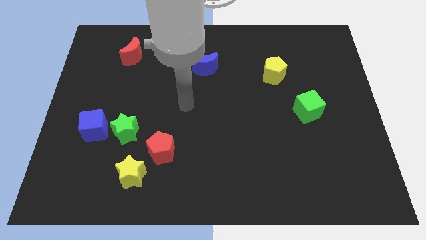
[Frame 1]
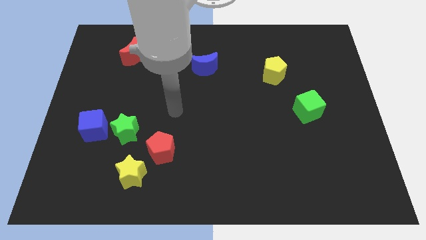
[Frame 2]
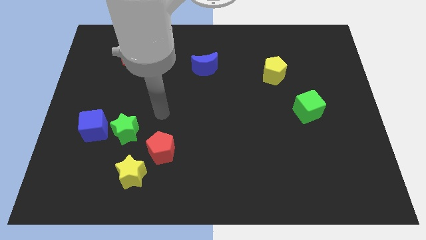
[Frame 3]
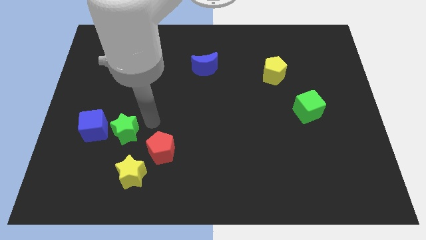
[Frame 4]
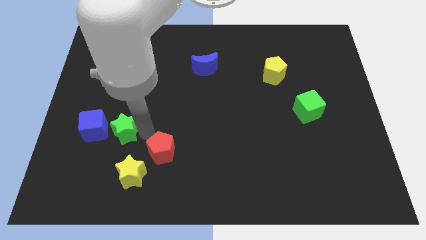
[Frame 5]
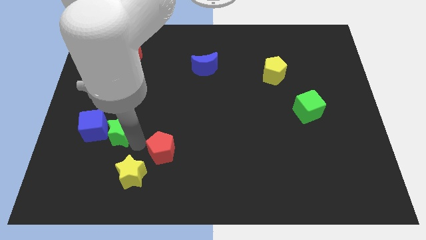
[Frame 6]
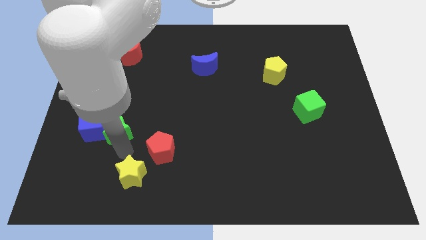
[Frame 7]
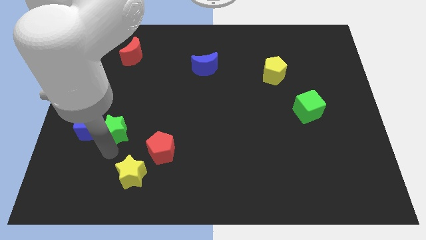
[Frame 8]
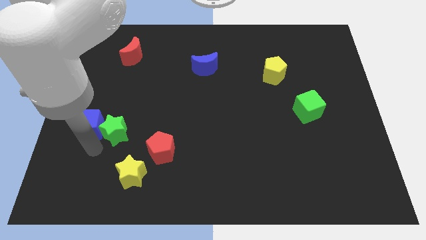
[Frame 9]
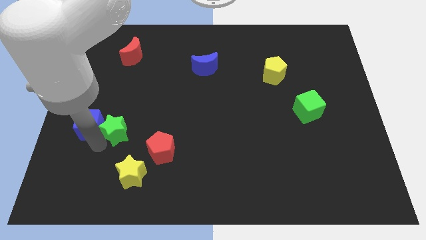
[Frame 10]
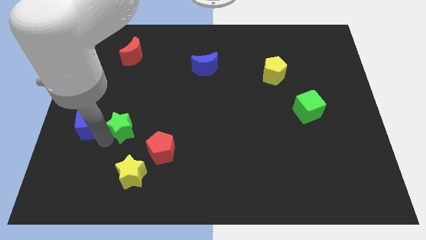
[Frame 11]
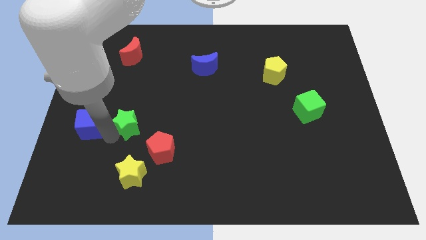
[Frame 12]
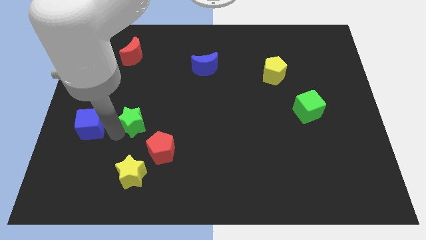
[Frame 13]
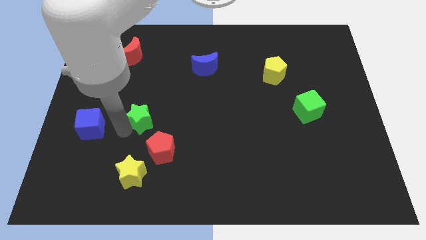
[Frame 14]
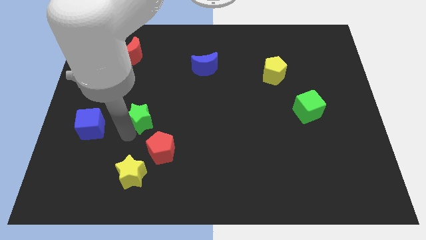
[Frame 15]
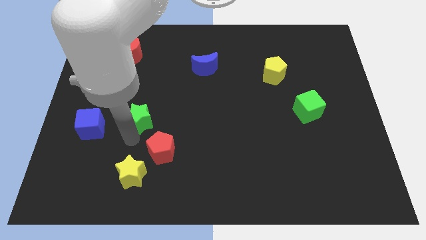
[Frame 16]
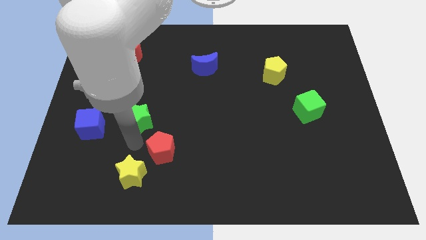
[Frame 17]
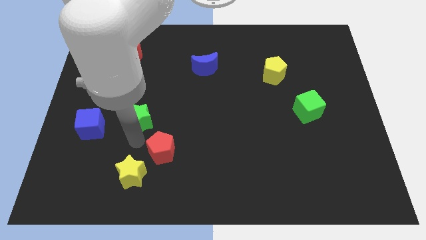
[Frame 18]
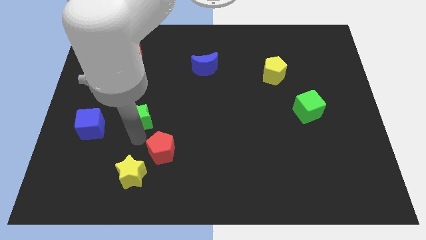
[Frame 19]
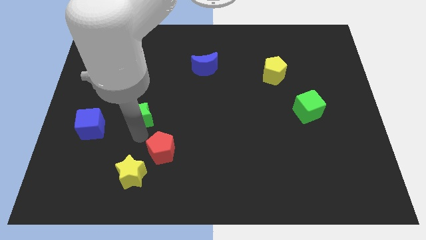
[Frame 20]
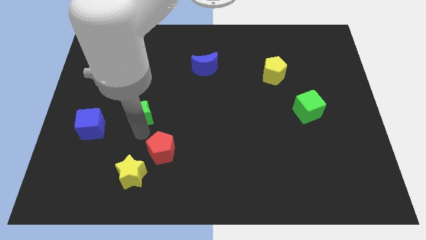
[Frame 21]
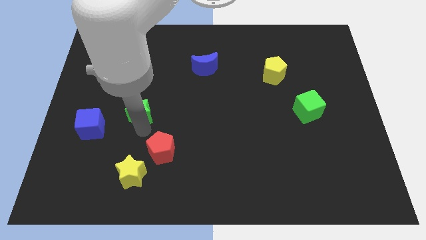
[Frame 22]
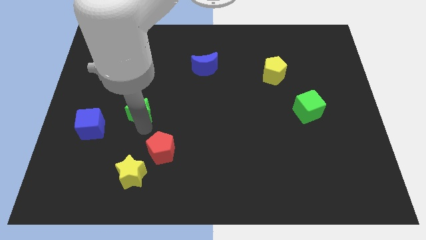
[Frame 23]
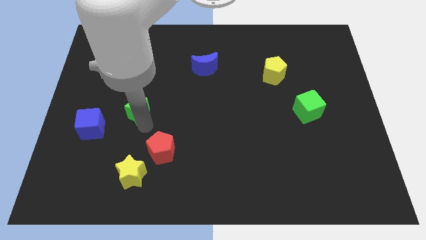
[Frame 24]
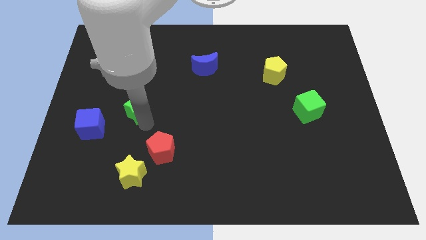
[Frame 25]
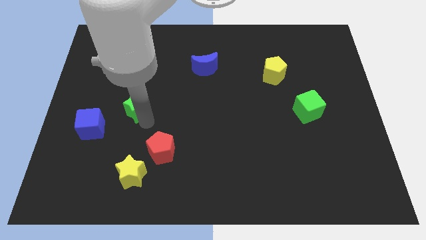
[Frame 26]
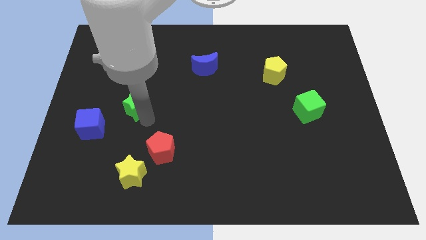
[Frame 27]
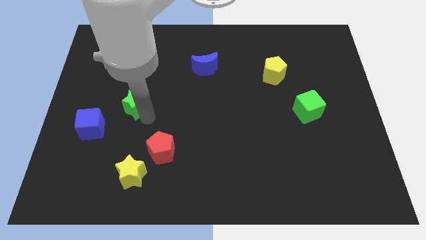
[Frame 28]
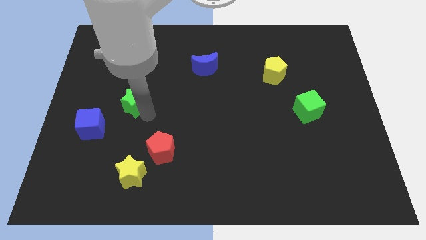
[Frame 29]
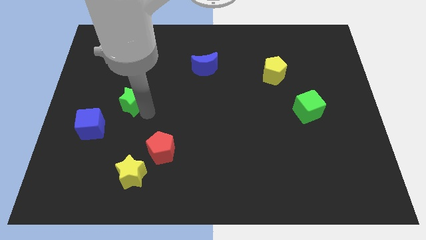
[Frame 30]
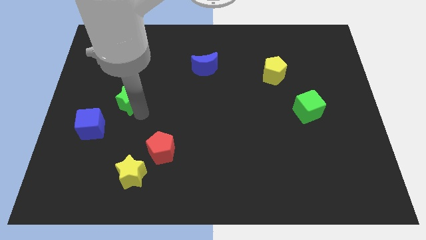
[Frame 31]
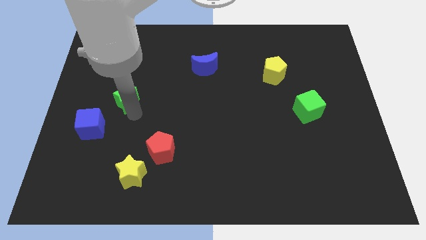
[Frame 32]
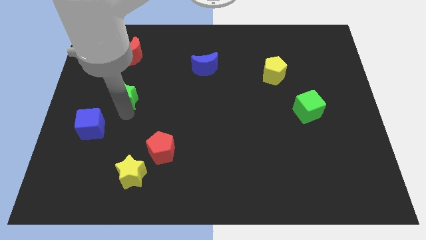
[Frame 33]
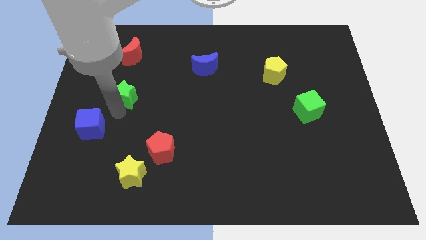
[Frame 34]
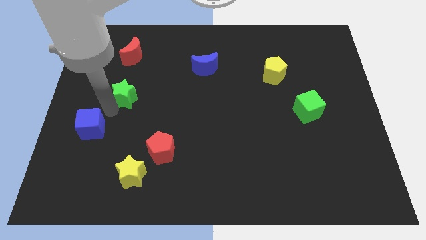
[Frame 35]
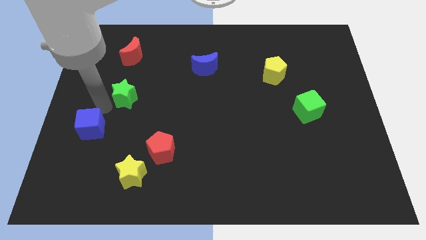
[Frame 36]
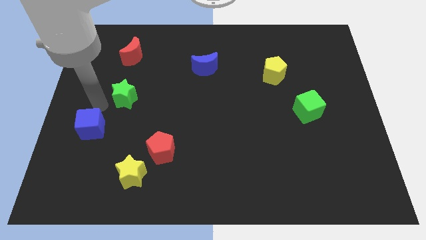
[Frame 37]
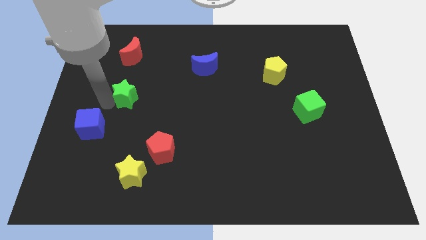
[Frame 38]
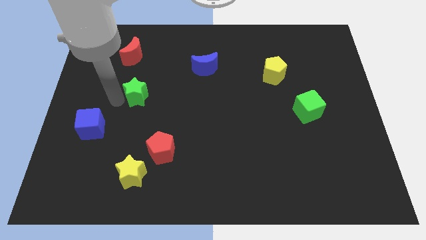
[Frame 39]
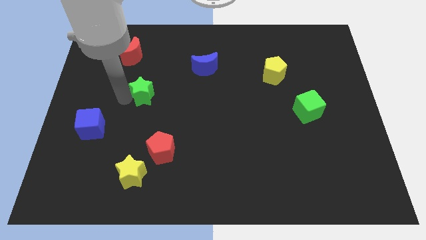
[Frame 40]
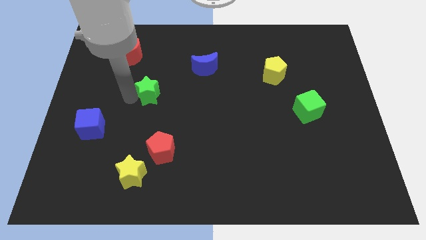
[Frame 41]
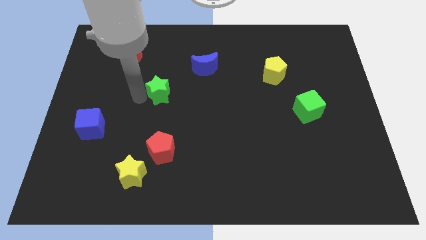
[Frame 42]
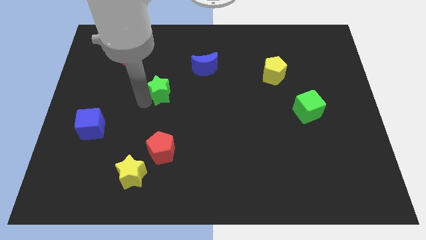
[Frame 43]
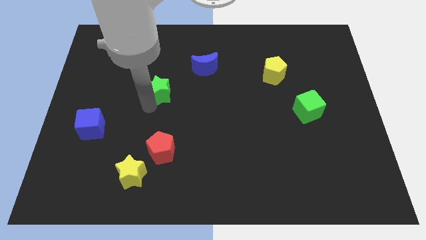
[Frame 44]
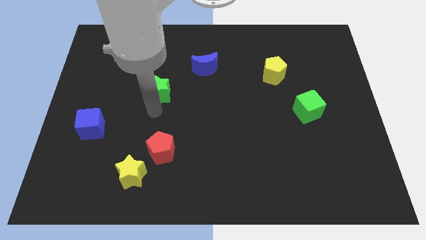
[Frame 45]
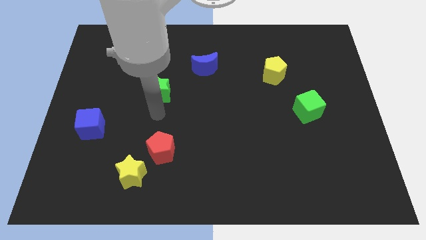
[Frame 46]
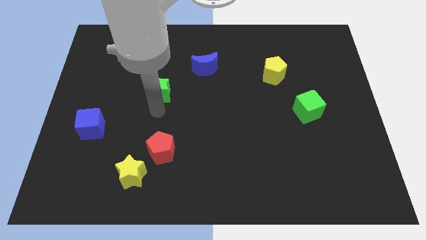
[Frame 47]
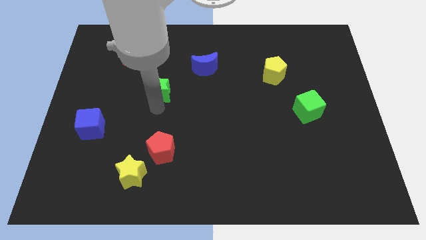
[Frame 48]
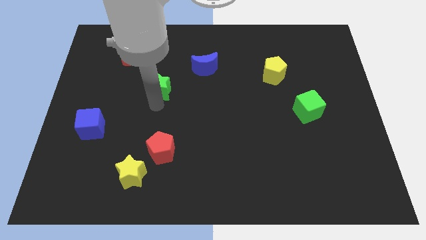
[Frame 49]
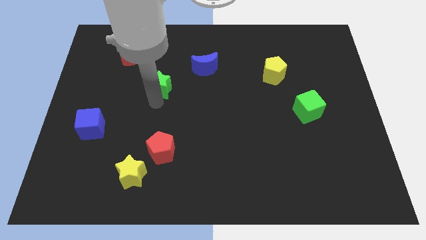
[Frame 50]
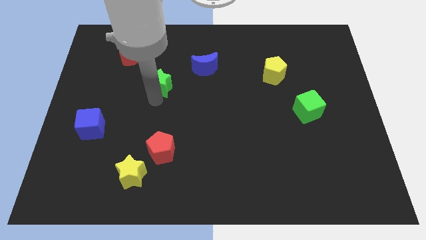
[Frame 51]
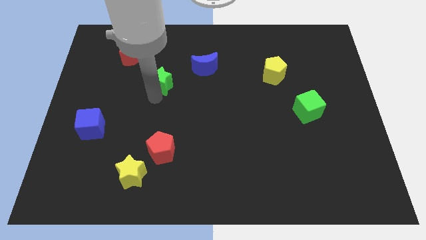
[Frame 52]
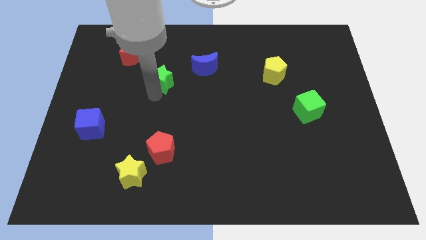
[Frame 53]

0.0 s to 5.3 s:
slide the green star left of the blue moon

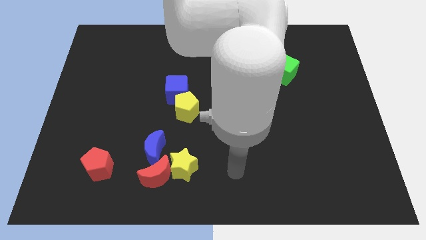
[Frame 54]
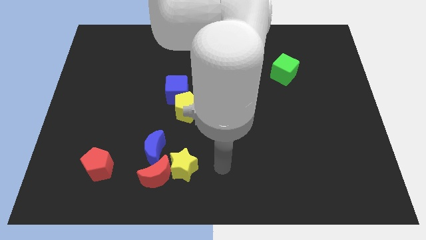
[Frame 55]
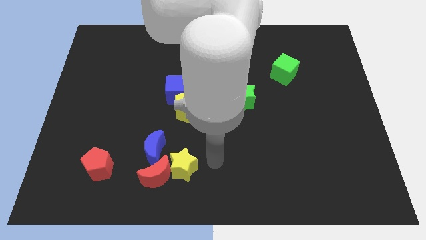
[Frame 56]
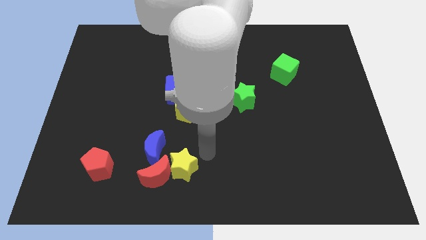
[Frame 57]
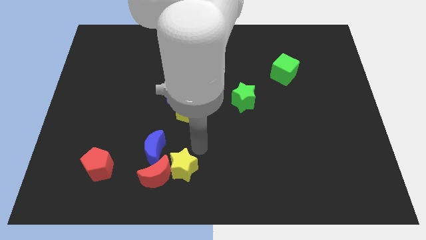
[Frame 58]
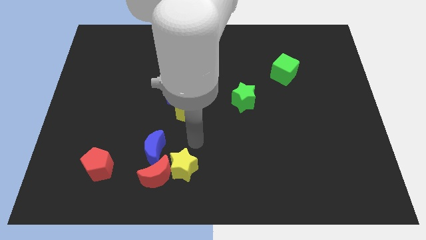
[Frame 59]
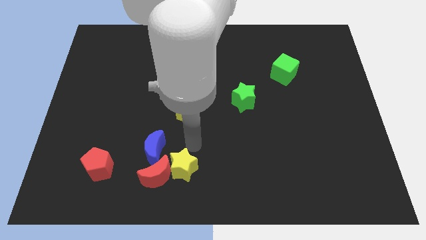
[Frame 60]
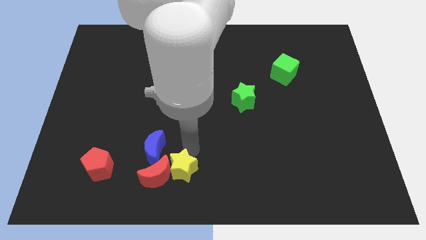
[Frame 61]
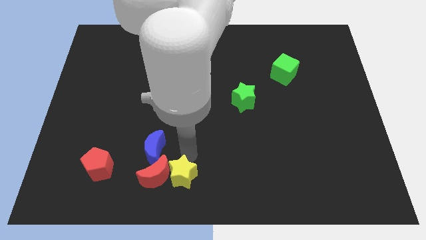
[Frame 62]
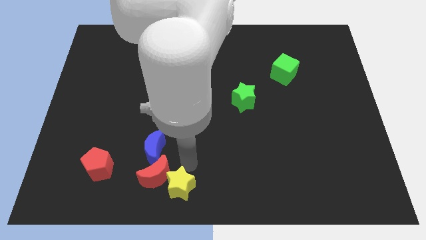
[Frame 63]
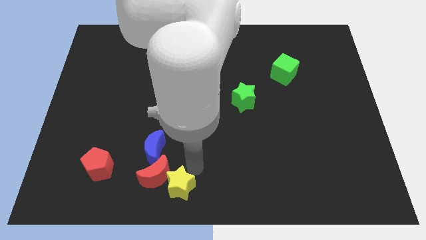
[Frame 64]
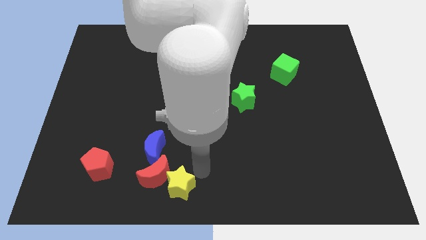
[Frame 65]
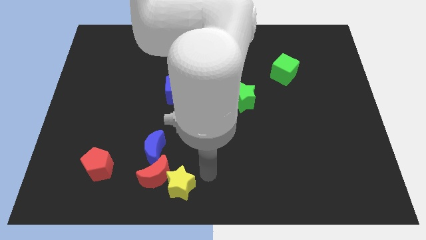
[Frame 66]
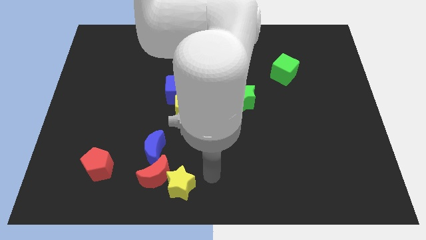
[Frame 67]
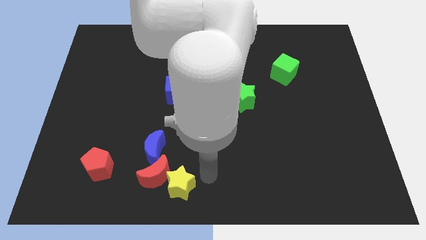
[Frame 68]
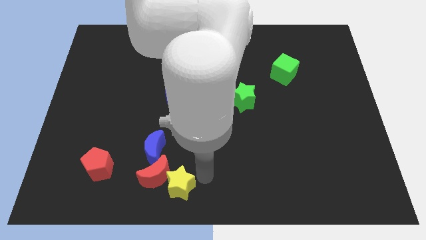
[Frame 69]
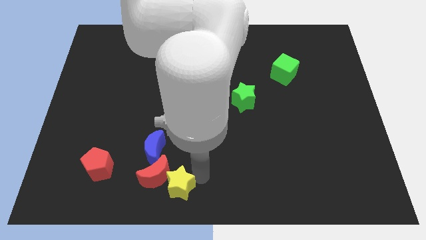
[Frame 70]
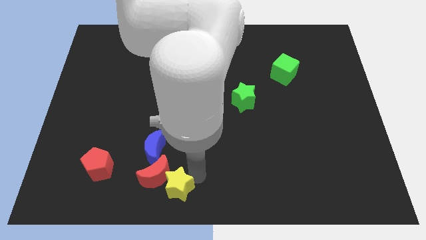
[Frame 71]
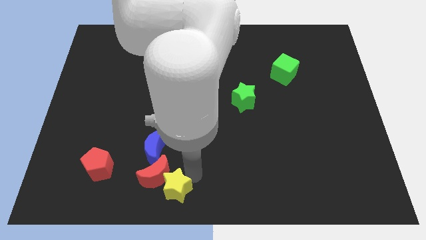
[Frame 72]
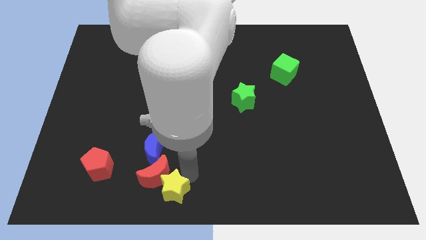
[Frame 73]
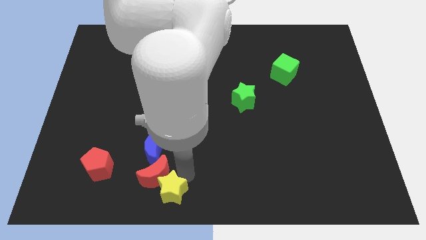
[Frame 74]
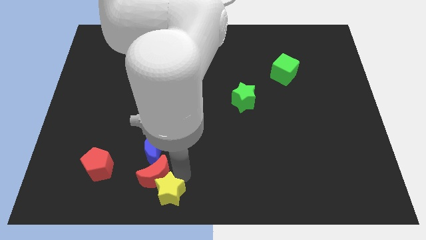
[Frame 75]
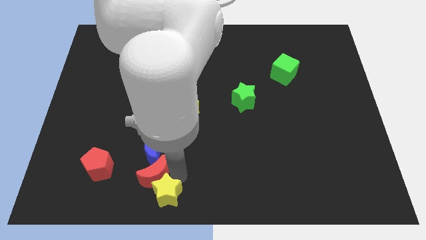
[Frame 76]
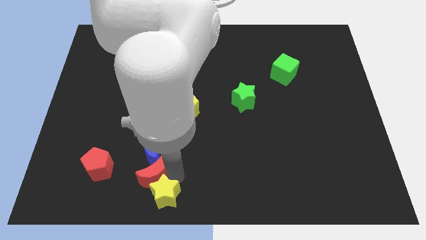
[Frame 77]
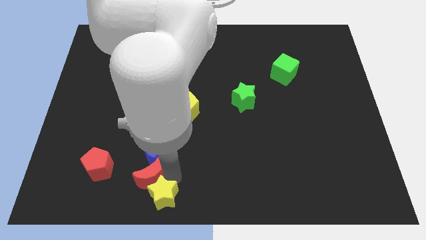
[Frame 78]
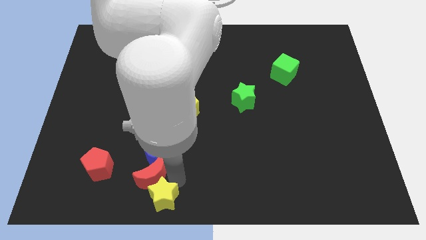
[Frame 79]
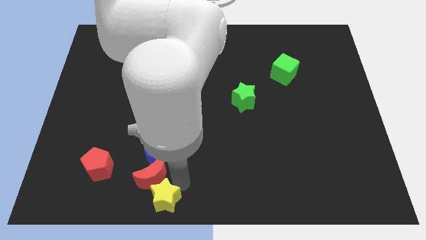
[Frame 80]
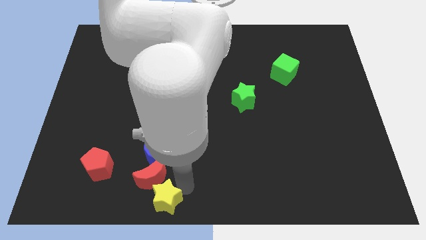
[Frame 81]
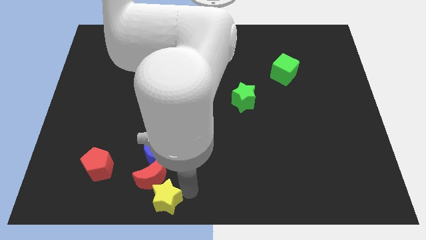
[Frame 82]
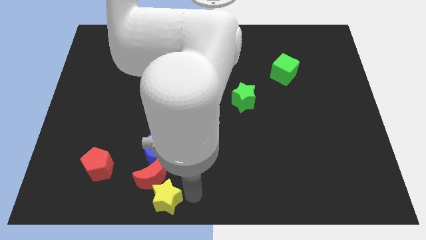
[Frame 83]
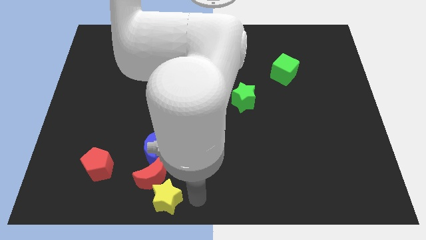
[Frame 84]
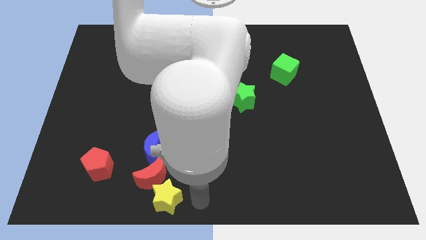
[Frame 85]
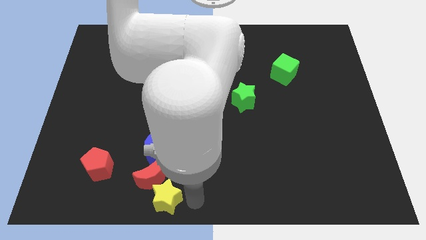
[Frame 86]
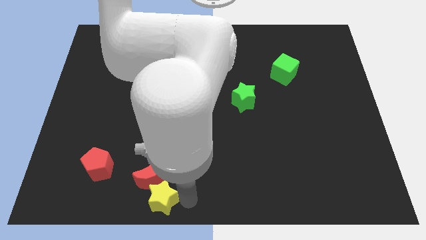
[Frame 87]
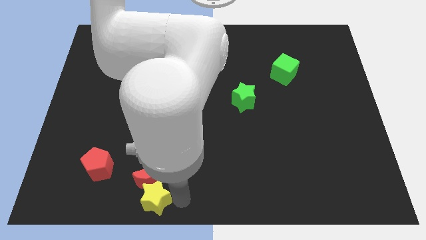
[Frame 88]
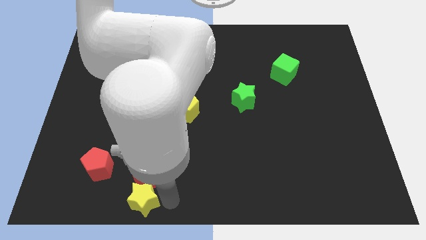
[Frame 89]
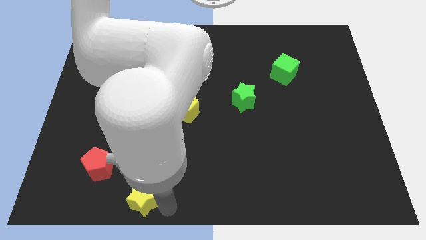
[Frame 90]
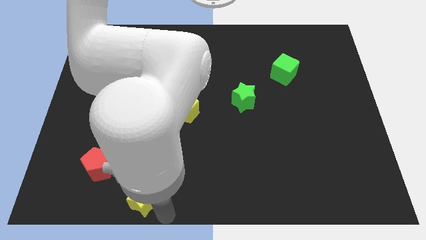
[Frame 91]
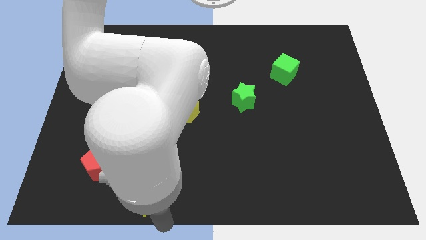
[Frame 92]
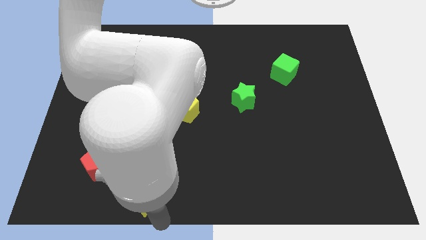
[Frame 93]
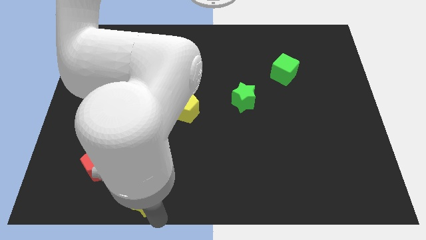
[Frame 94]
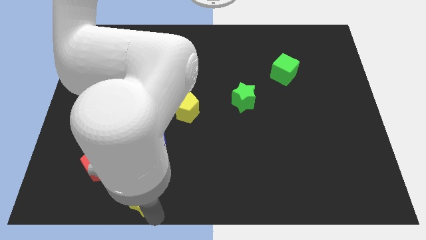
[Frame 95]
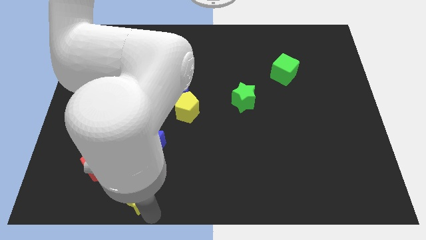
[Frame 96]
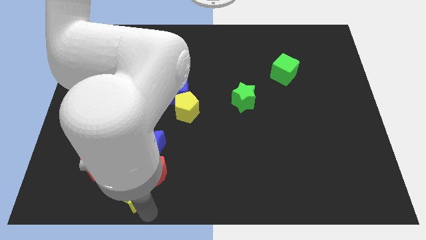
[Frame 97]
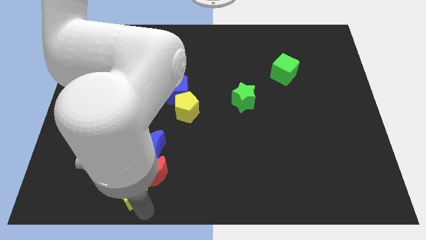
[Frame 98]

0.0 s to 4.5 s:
slide the yellow star to the bottom left of the blue moon
